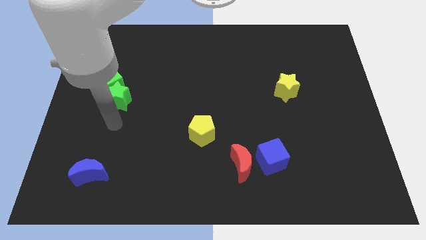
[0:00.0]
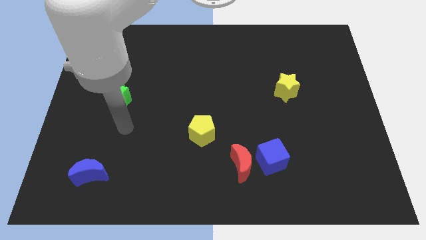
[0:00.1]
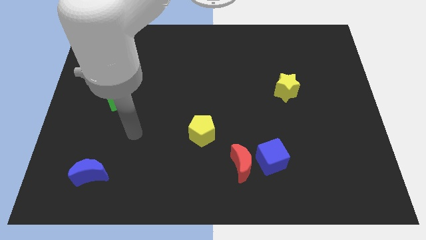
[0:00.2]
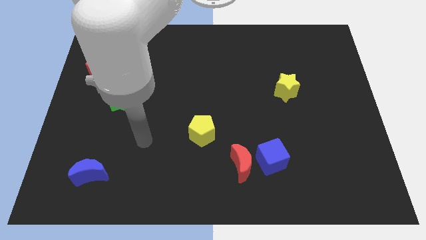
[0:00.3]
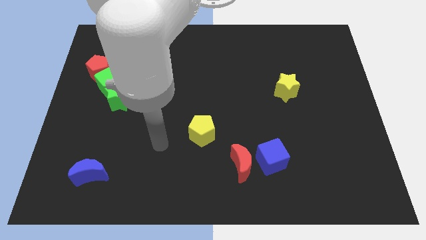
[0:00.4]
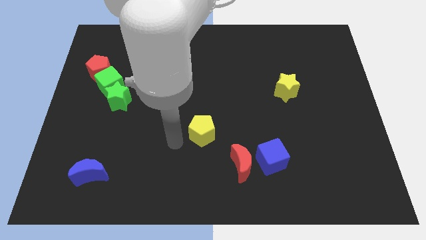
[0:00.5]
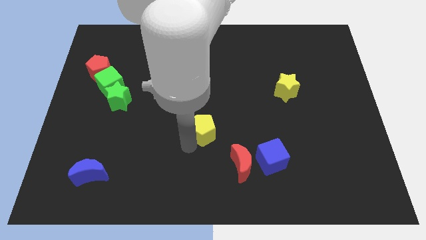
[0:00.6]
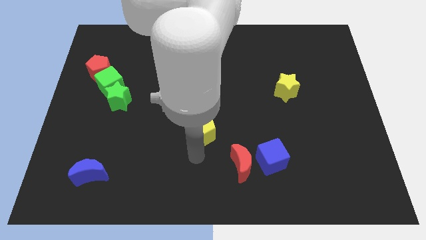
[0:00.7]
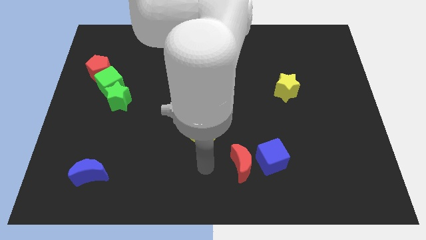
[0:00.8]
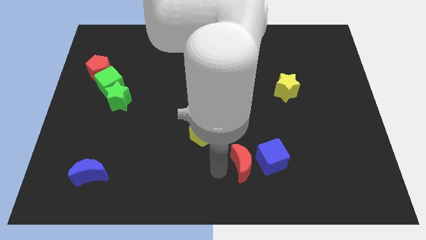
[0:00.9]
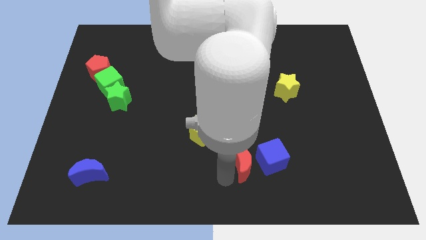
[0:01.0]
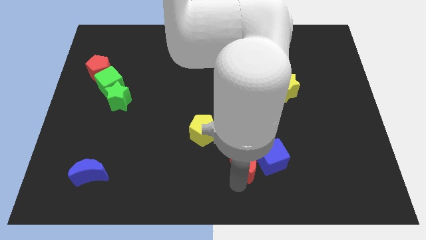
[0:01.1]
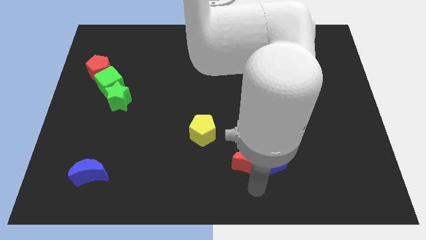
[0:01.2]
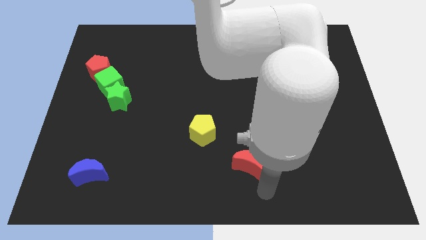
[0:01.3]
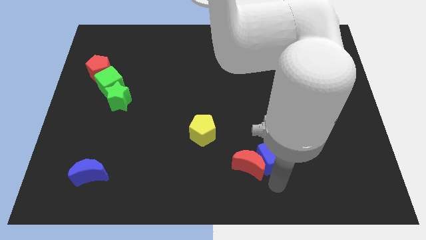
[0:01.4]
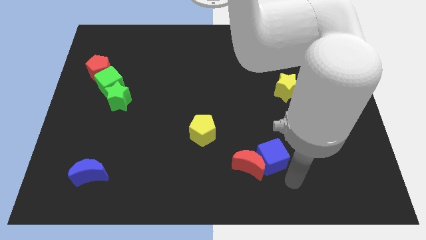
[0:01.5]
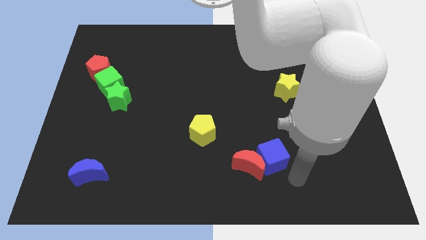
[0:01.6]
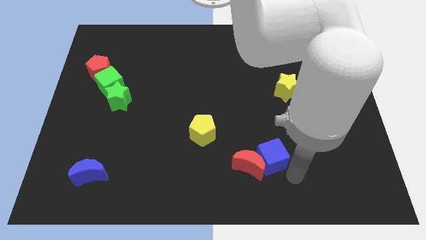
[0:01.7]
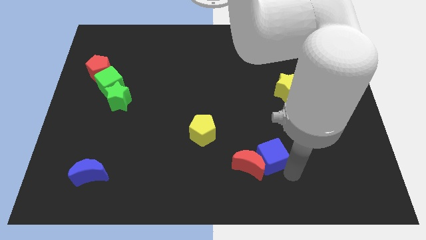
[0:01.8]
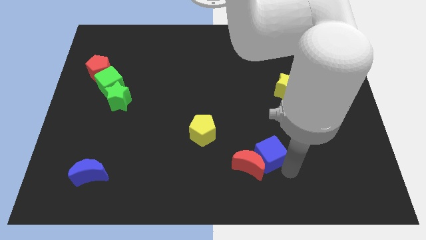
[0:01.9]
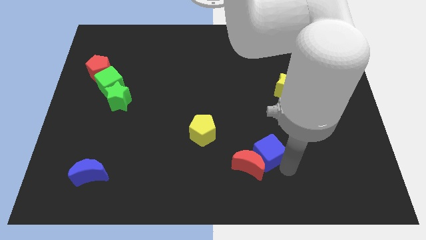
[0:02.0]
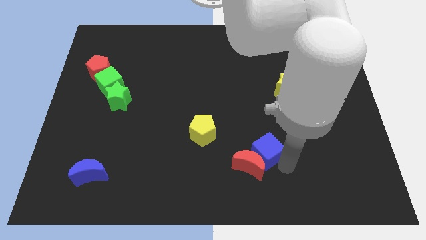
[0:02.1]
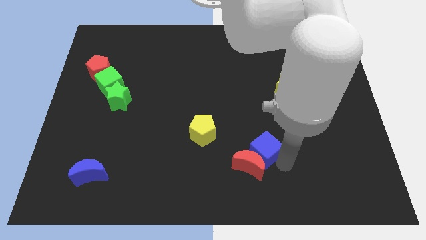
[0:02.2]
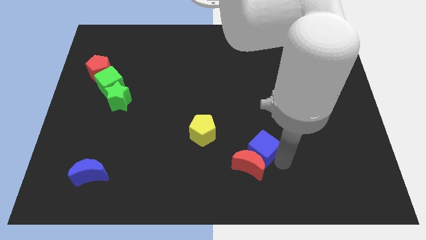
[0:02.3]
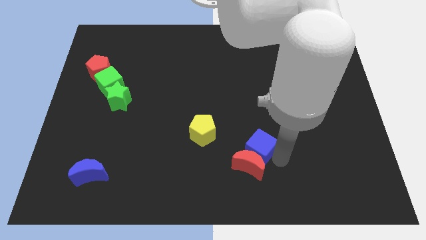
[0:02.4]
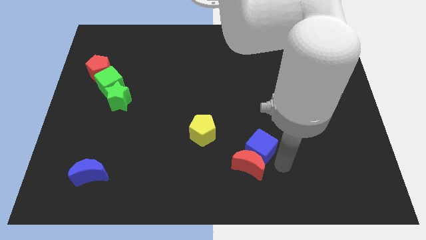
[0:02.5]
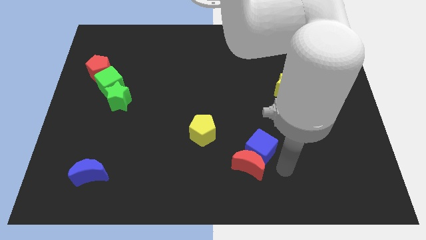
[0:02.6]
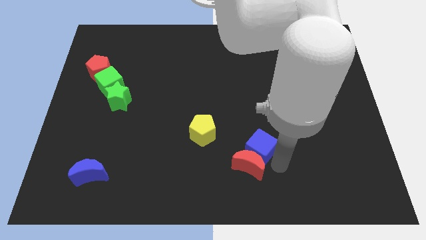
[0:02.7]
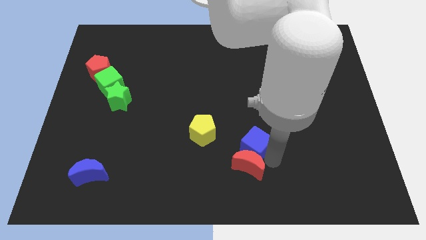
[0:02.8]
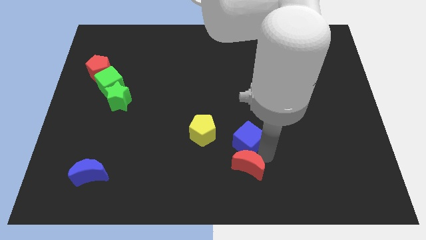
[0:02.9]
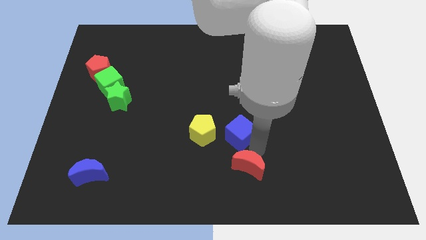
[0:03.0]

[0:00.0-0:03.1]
push the blue cube a little diagonally up and to the left

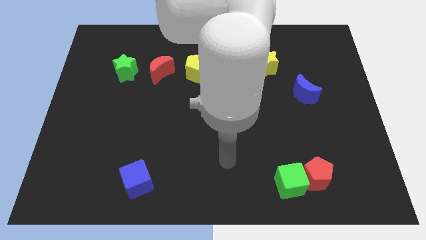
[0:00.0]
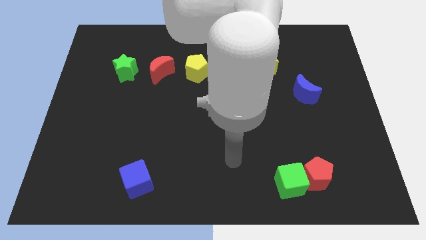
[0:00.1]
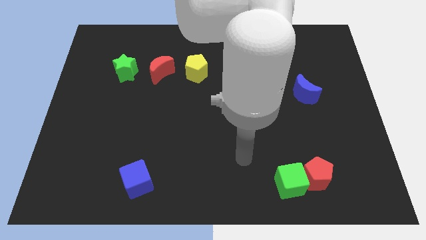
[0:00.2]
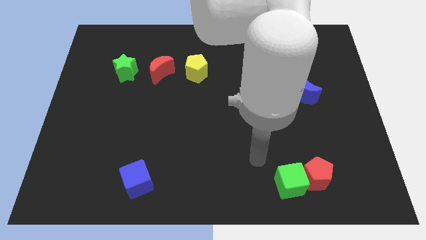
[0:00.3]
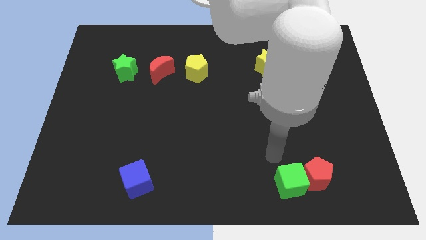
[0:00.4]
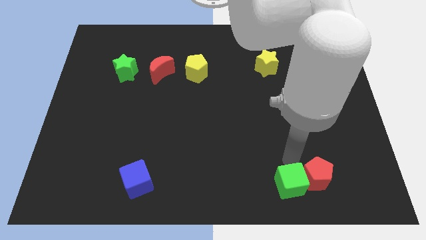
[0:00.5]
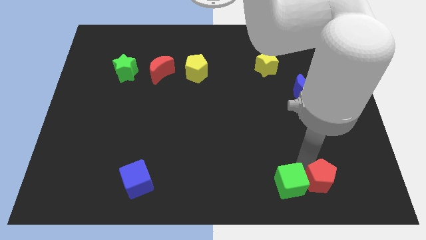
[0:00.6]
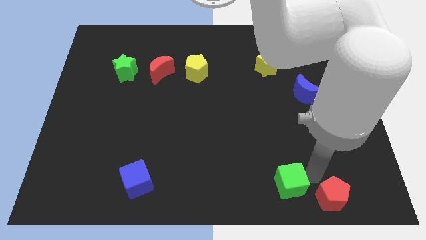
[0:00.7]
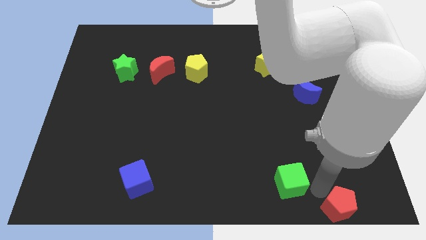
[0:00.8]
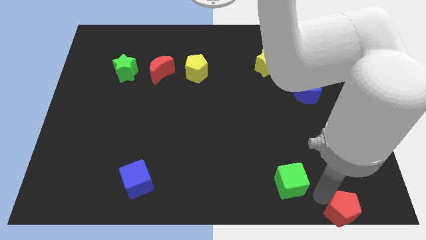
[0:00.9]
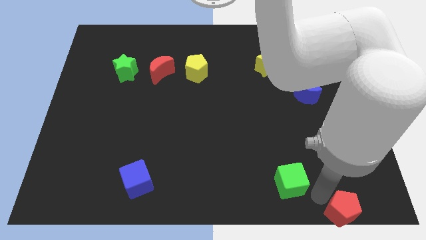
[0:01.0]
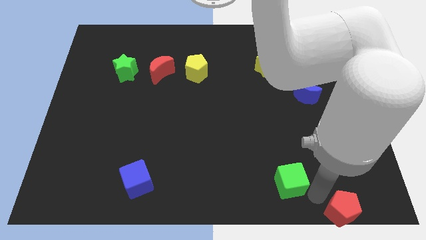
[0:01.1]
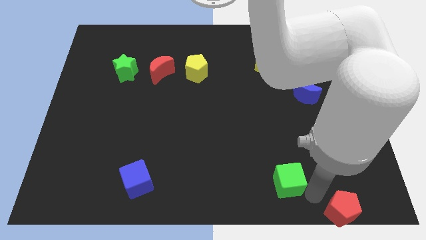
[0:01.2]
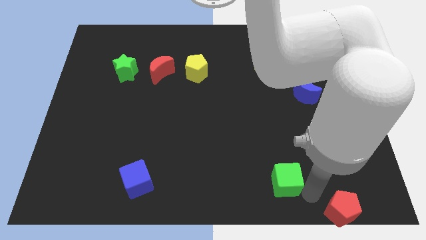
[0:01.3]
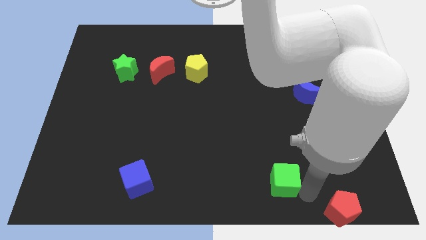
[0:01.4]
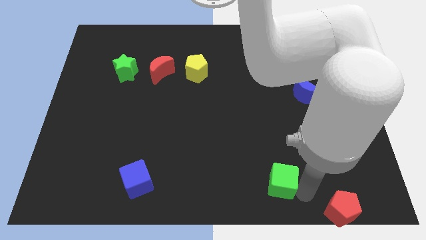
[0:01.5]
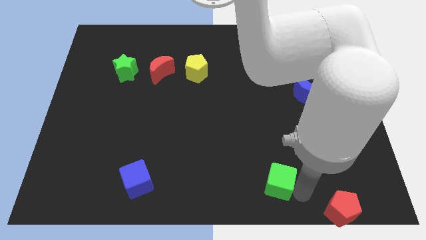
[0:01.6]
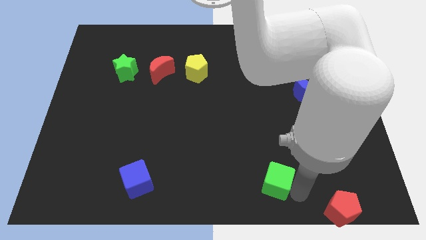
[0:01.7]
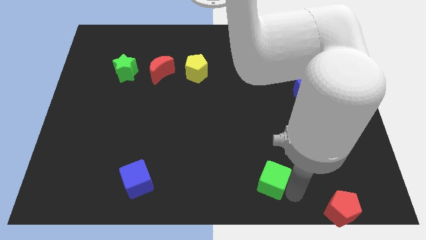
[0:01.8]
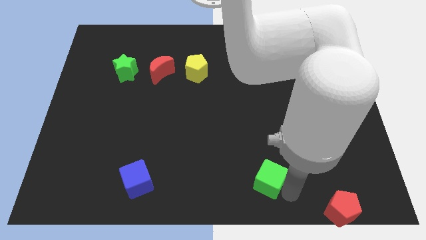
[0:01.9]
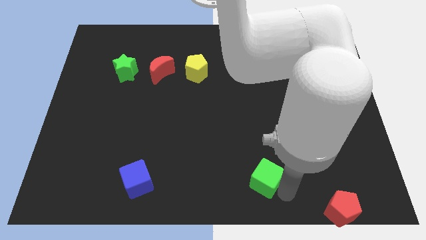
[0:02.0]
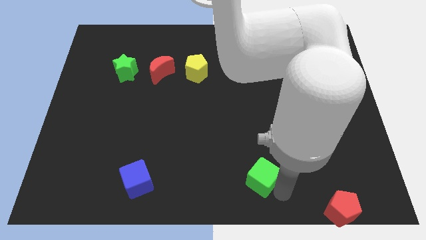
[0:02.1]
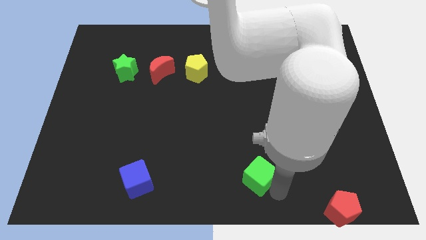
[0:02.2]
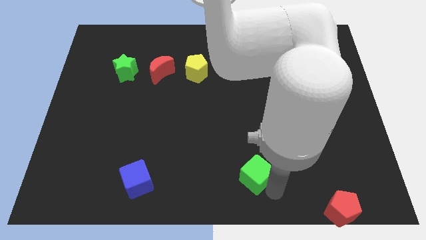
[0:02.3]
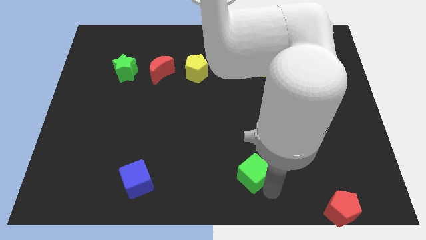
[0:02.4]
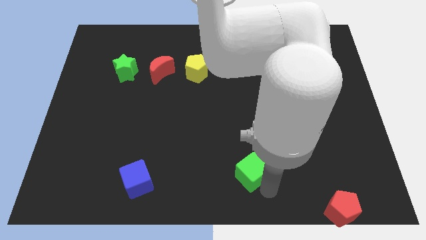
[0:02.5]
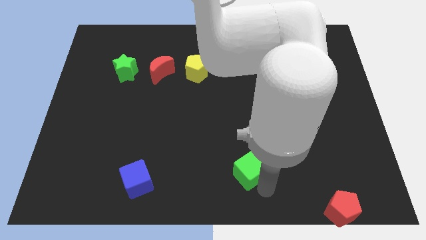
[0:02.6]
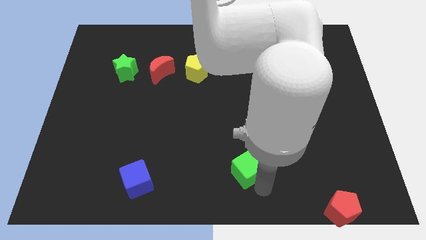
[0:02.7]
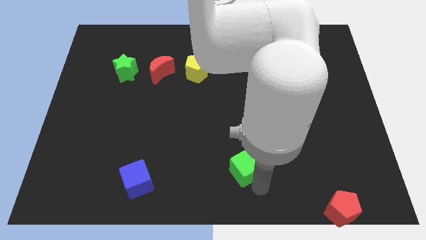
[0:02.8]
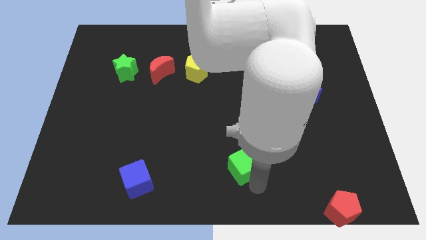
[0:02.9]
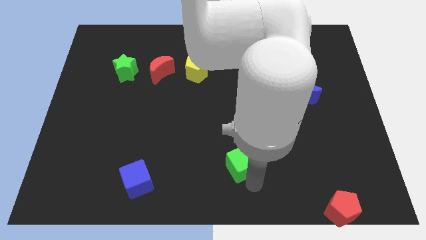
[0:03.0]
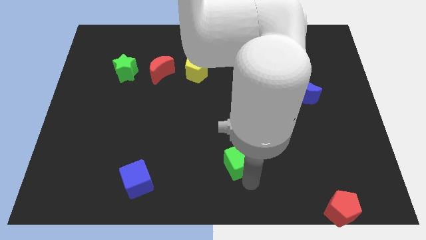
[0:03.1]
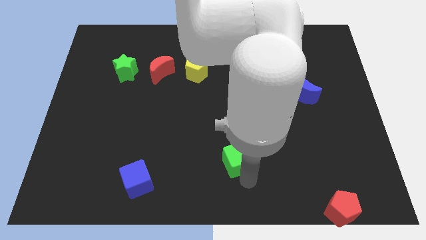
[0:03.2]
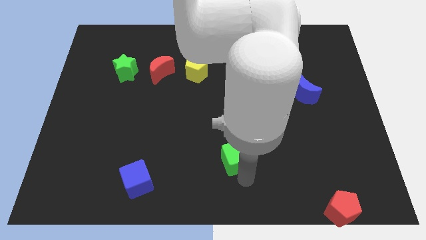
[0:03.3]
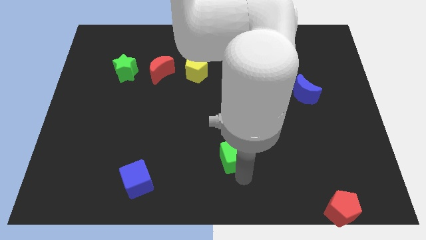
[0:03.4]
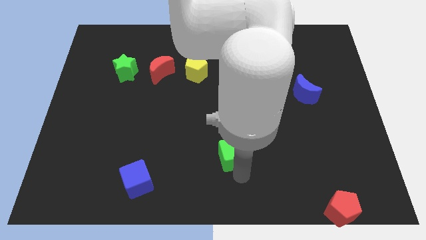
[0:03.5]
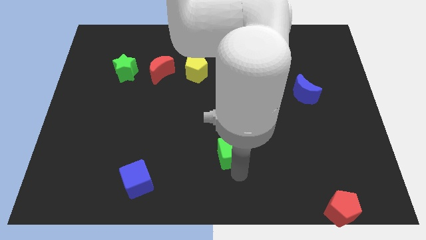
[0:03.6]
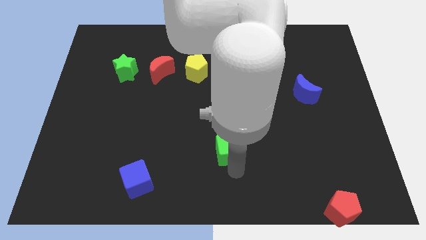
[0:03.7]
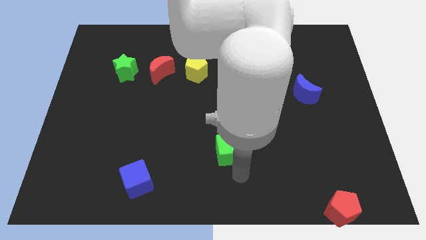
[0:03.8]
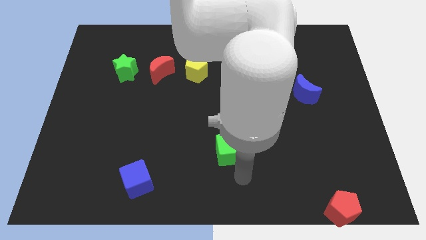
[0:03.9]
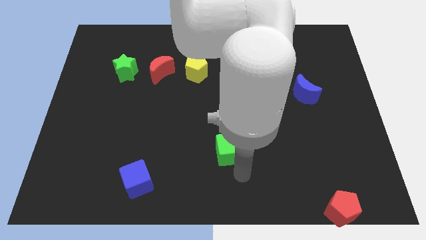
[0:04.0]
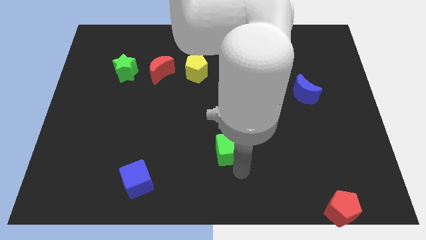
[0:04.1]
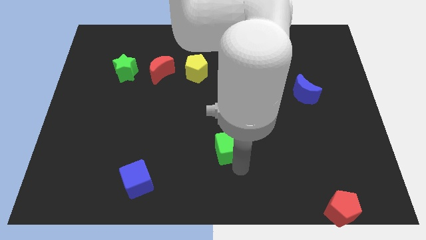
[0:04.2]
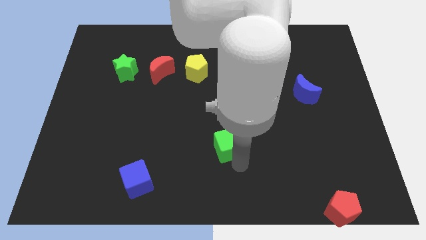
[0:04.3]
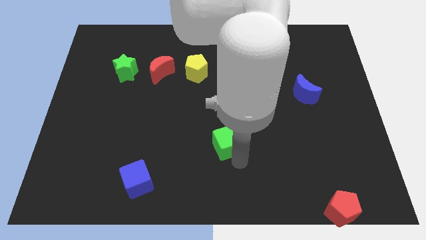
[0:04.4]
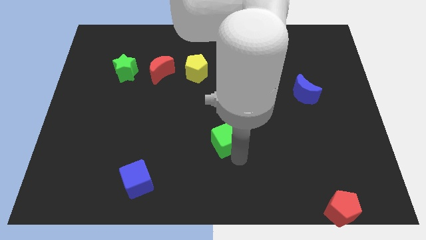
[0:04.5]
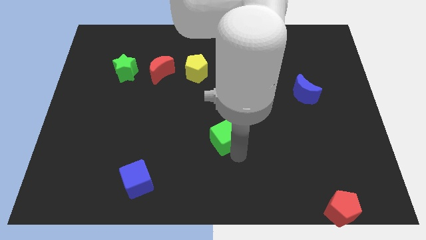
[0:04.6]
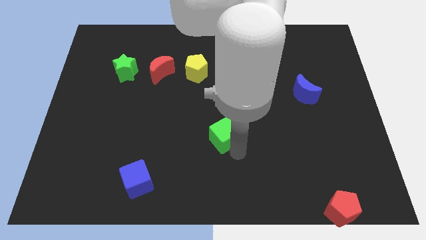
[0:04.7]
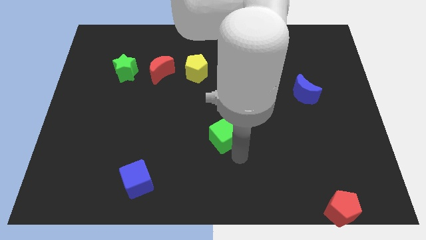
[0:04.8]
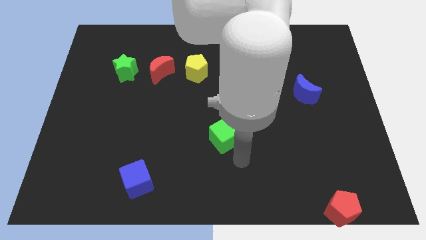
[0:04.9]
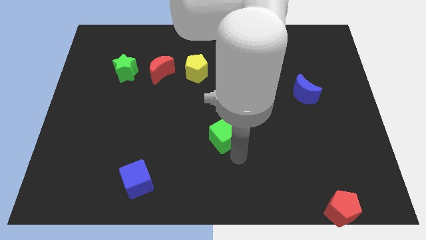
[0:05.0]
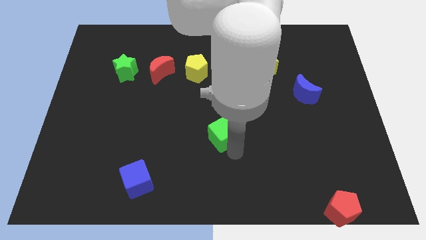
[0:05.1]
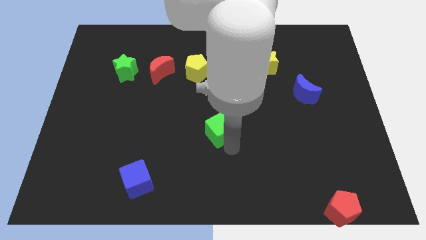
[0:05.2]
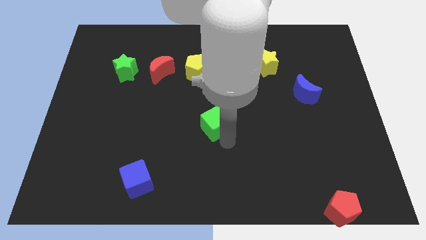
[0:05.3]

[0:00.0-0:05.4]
move the green cube diagonally upwards and left
